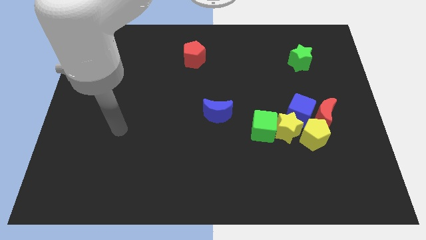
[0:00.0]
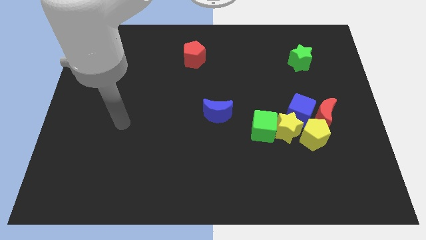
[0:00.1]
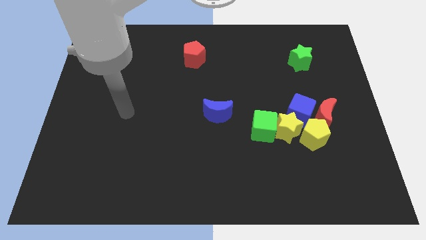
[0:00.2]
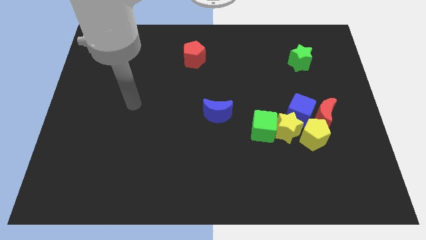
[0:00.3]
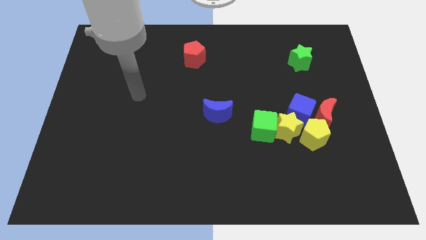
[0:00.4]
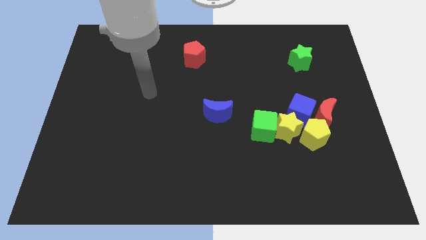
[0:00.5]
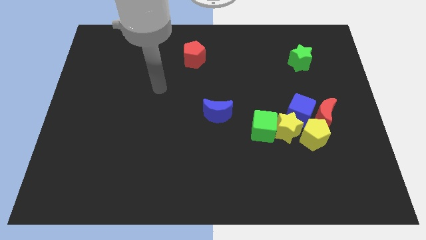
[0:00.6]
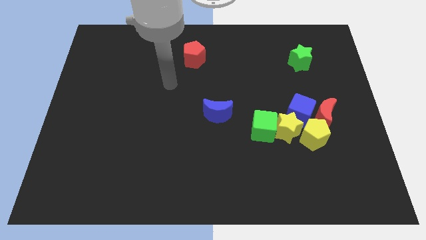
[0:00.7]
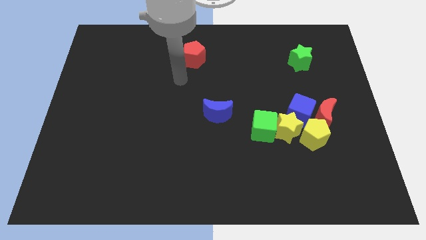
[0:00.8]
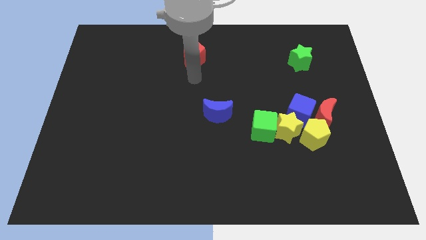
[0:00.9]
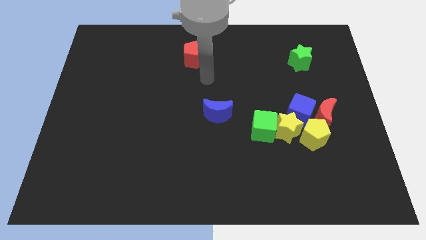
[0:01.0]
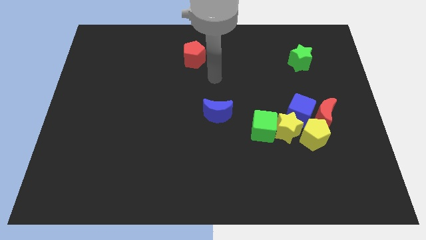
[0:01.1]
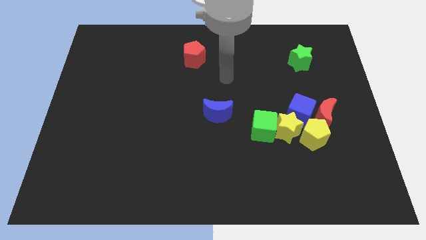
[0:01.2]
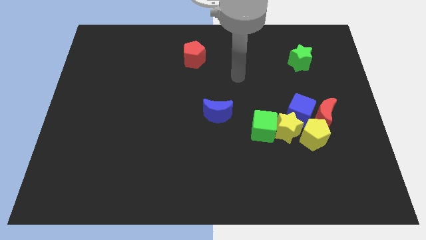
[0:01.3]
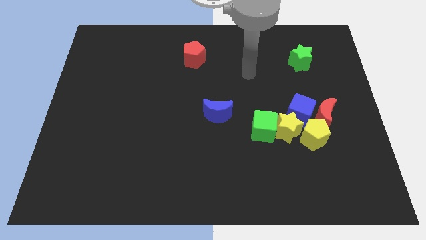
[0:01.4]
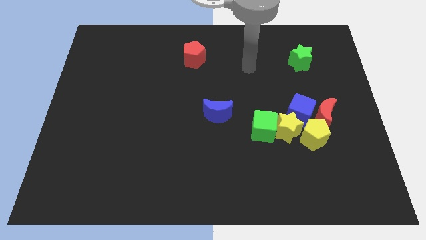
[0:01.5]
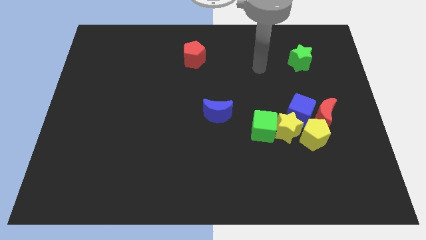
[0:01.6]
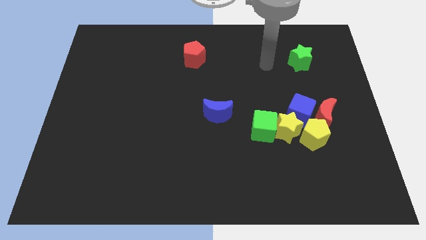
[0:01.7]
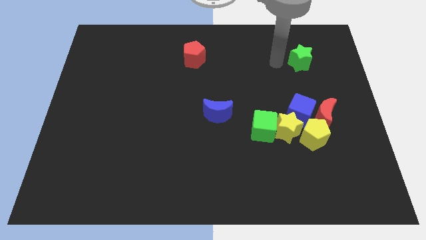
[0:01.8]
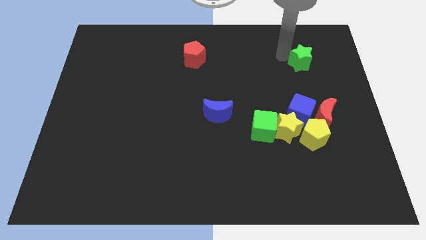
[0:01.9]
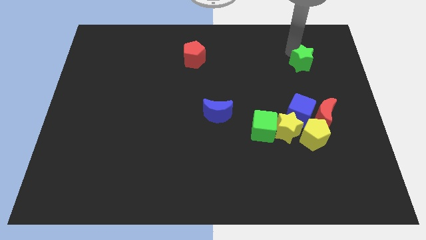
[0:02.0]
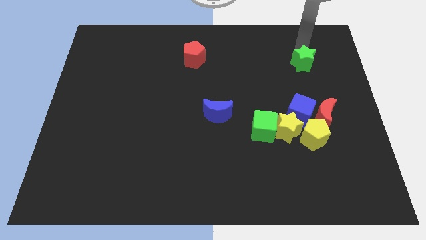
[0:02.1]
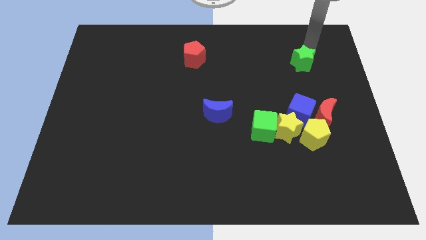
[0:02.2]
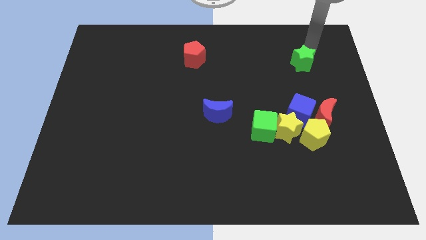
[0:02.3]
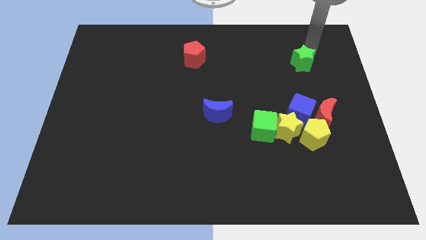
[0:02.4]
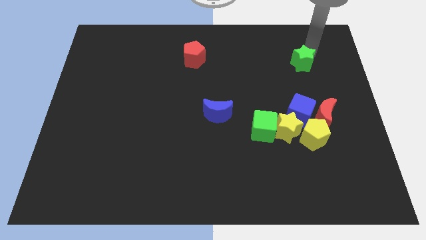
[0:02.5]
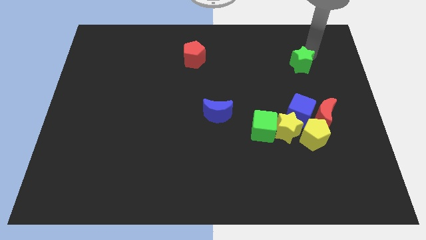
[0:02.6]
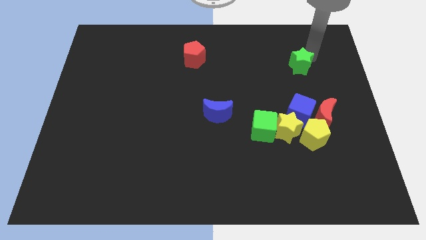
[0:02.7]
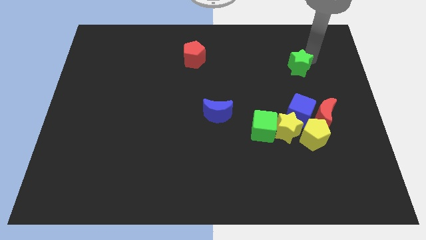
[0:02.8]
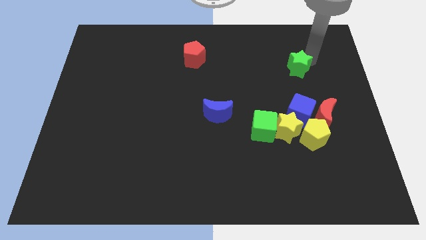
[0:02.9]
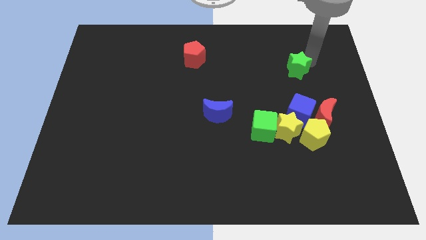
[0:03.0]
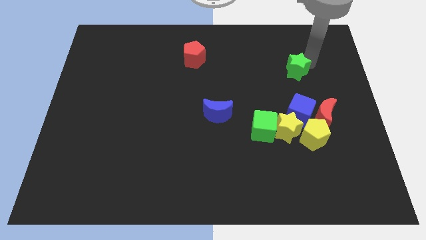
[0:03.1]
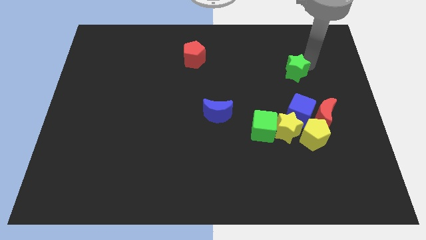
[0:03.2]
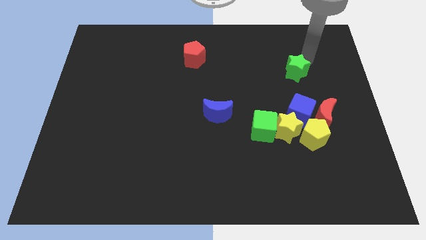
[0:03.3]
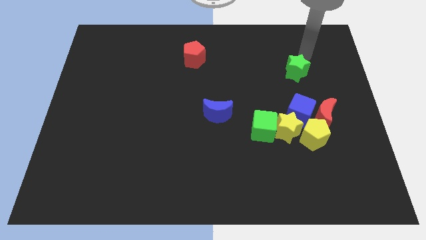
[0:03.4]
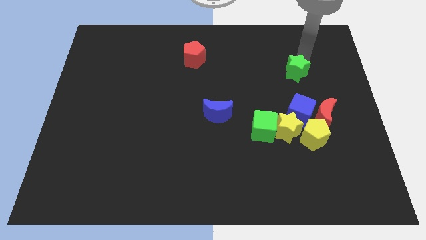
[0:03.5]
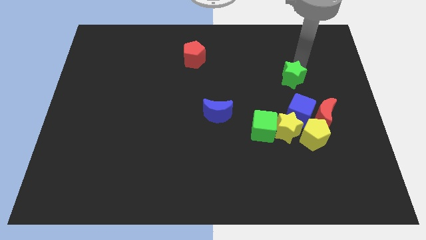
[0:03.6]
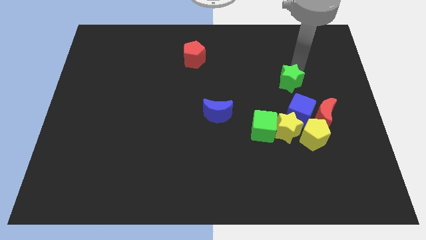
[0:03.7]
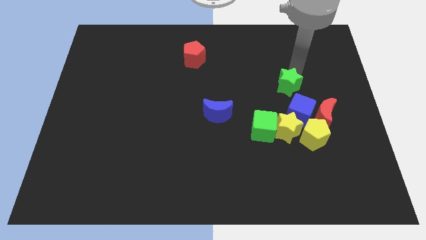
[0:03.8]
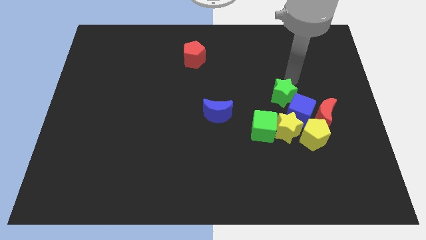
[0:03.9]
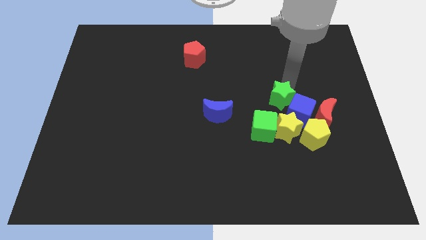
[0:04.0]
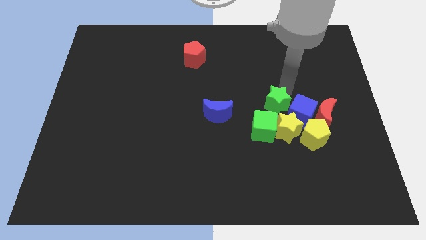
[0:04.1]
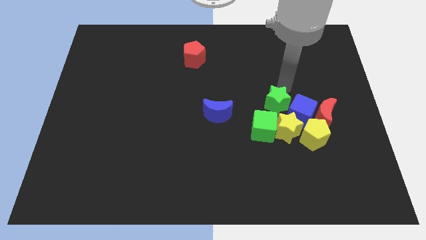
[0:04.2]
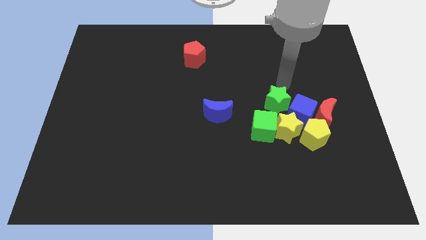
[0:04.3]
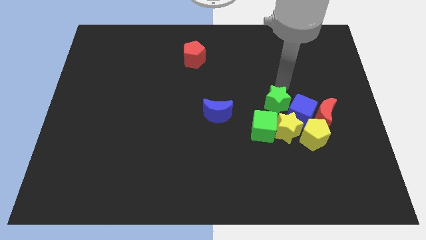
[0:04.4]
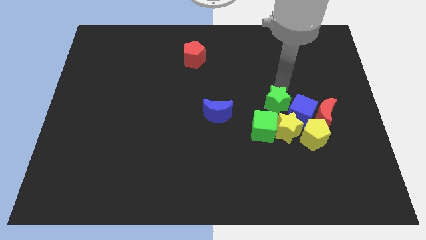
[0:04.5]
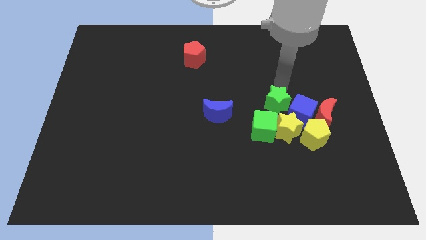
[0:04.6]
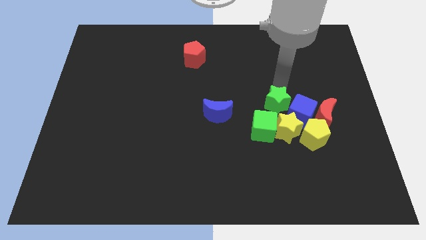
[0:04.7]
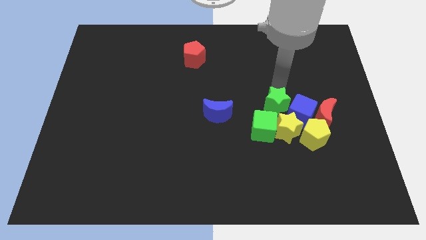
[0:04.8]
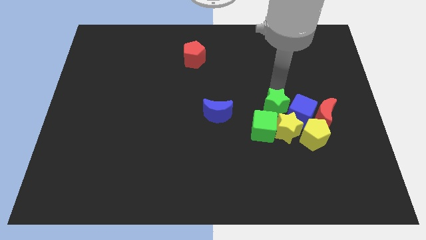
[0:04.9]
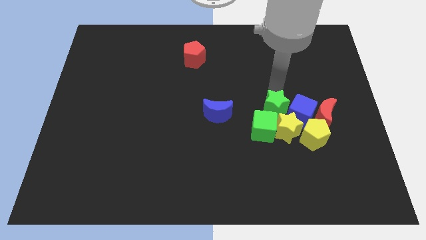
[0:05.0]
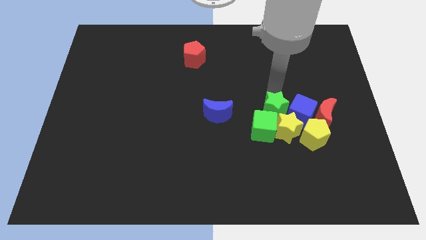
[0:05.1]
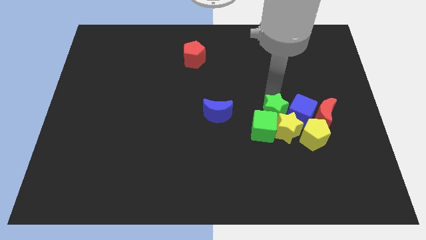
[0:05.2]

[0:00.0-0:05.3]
slide the green star close to the green cube

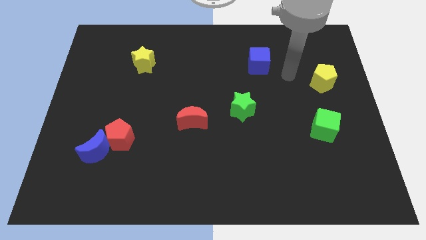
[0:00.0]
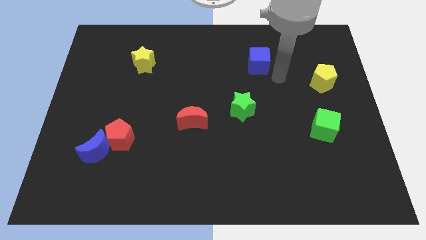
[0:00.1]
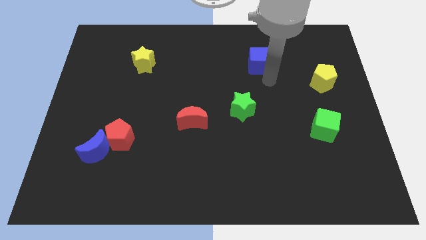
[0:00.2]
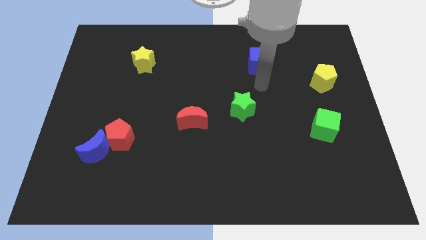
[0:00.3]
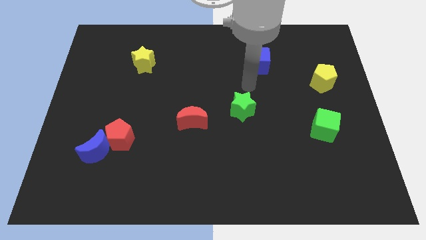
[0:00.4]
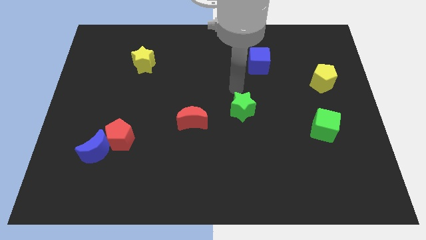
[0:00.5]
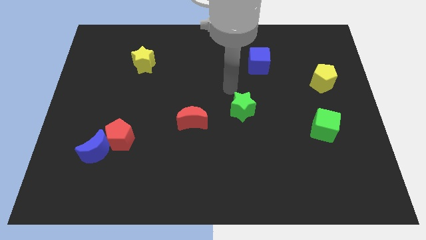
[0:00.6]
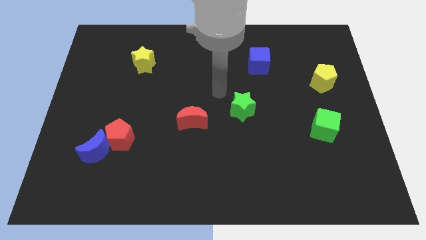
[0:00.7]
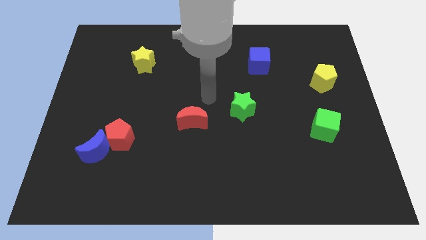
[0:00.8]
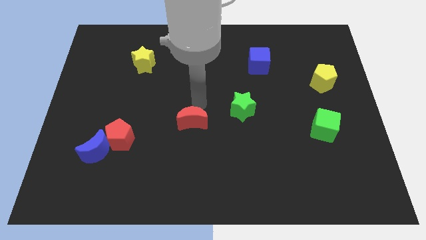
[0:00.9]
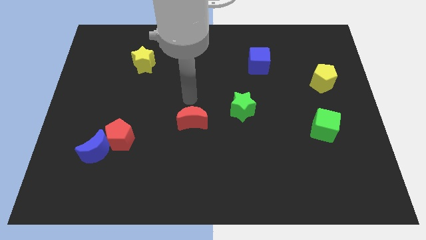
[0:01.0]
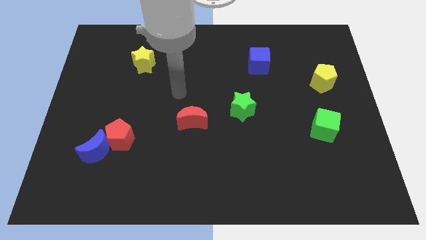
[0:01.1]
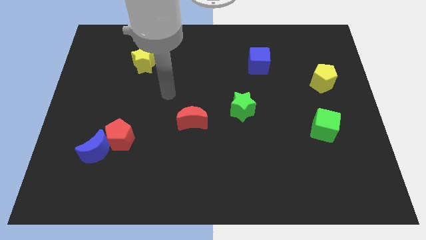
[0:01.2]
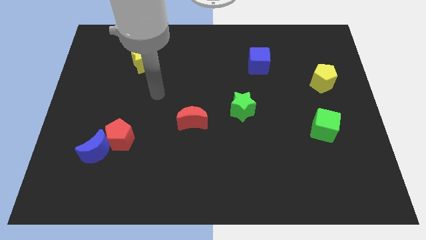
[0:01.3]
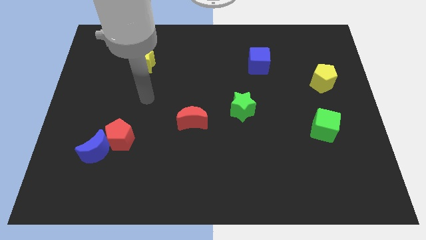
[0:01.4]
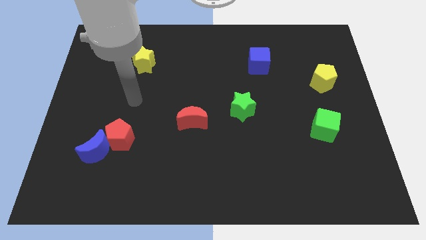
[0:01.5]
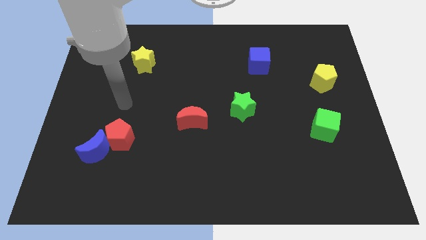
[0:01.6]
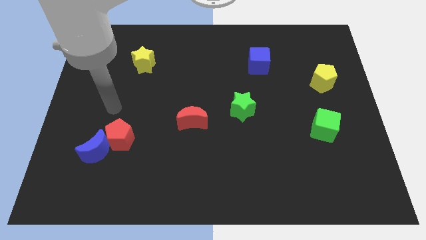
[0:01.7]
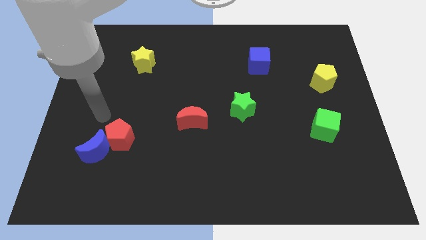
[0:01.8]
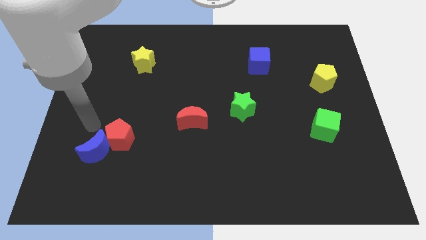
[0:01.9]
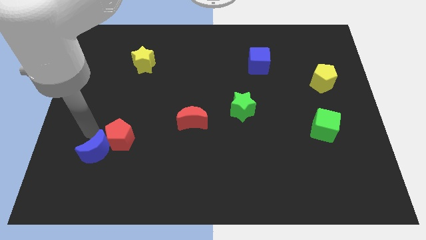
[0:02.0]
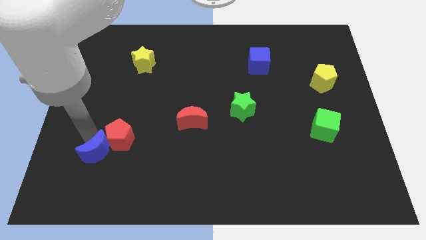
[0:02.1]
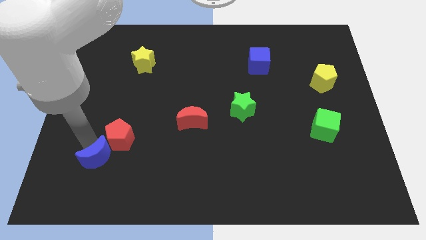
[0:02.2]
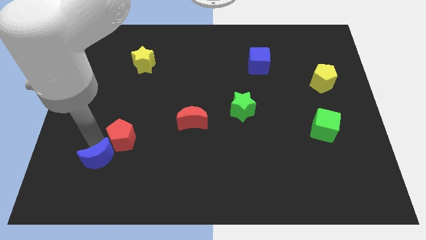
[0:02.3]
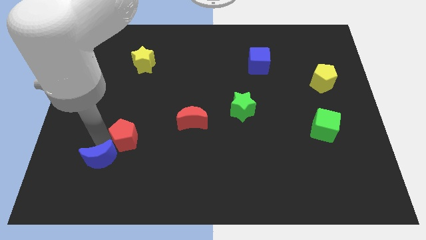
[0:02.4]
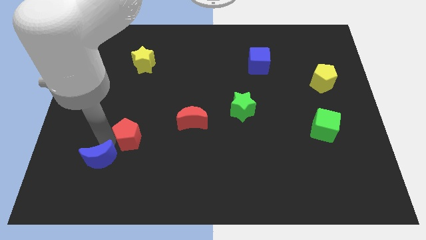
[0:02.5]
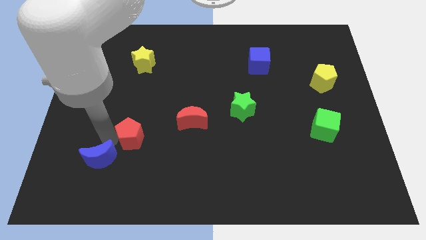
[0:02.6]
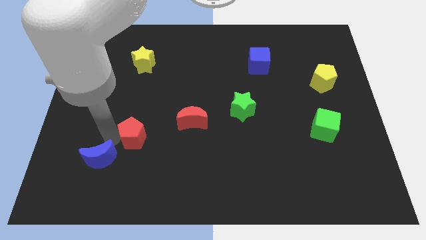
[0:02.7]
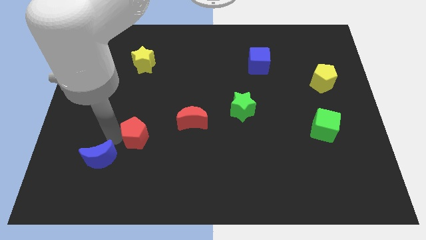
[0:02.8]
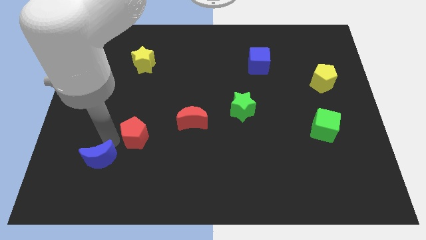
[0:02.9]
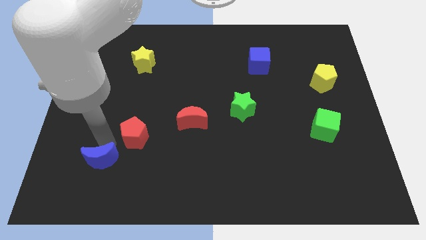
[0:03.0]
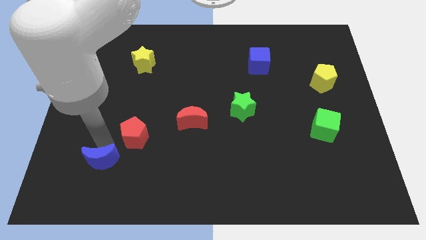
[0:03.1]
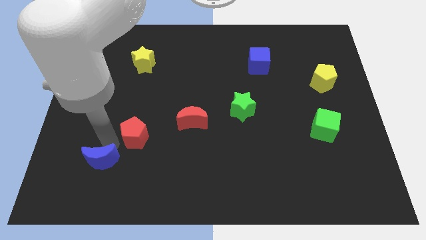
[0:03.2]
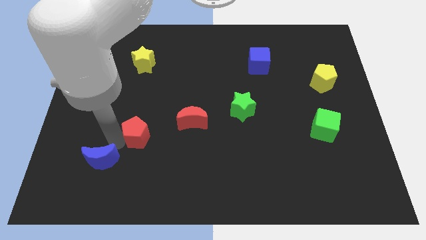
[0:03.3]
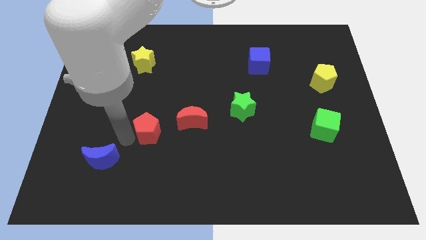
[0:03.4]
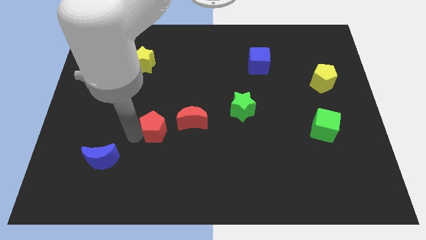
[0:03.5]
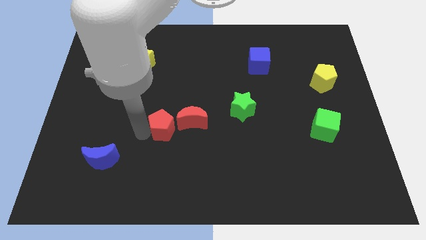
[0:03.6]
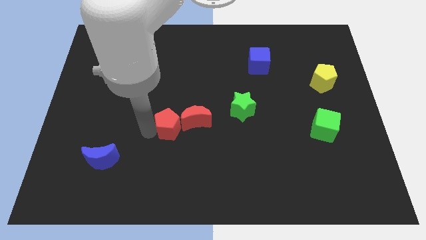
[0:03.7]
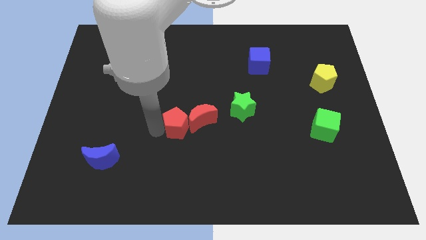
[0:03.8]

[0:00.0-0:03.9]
move the red pentagon next to the red moon
